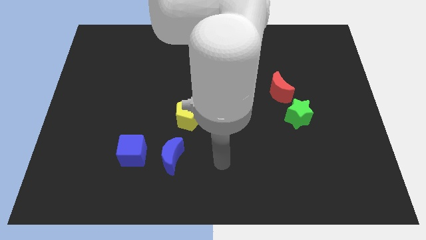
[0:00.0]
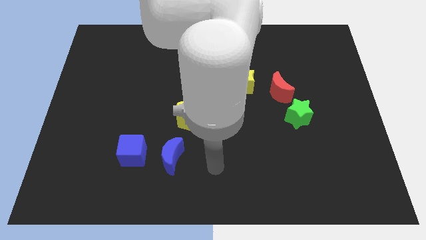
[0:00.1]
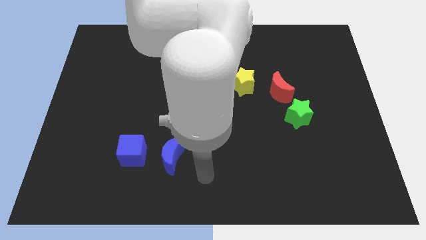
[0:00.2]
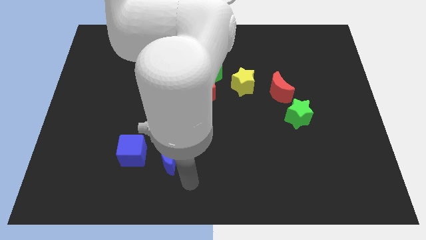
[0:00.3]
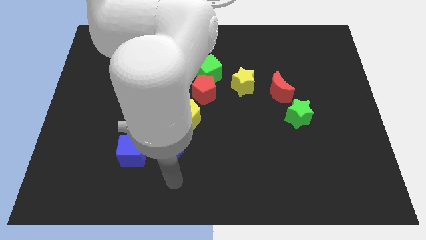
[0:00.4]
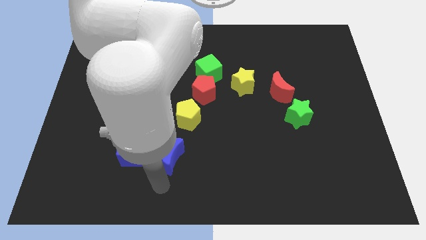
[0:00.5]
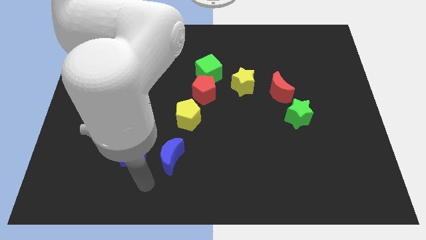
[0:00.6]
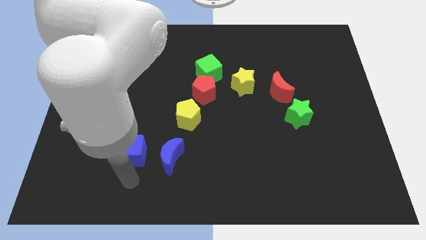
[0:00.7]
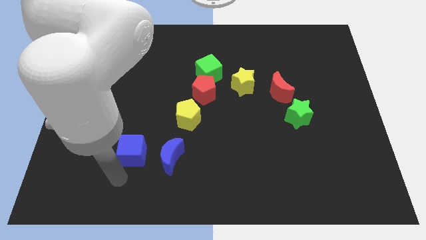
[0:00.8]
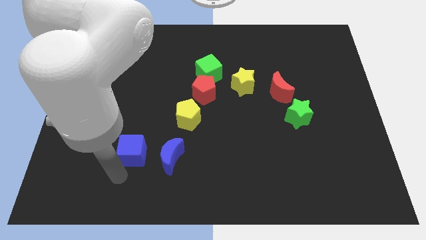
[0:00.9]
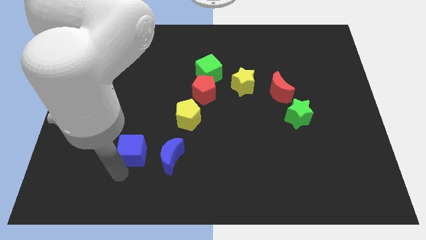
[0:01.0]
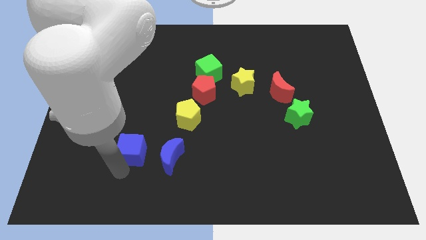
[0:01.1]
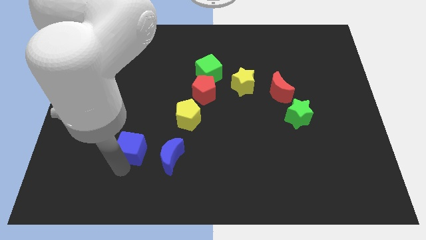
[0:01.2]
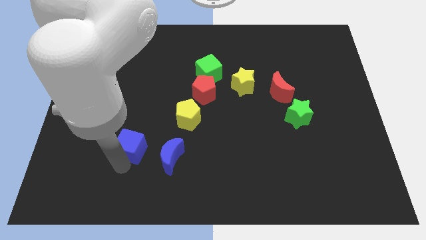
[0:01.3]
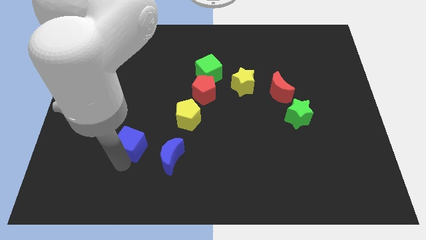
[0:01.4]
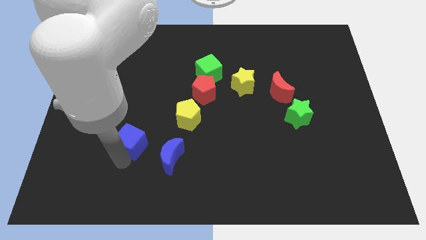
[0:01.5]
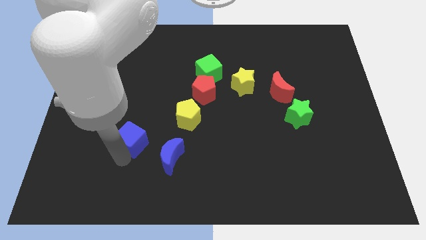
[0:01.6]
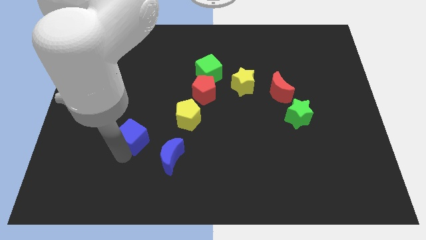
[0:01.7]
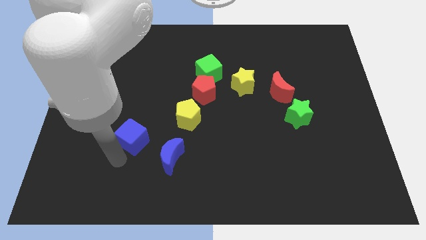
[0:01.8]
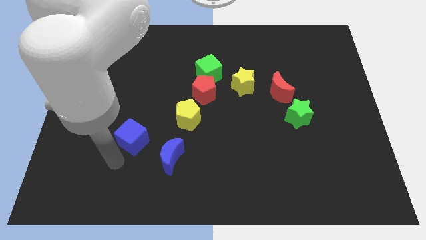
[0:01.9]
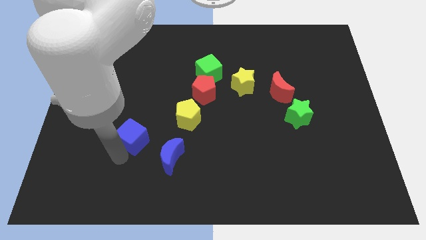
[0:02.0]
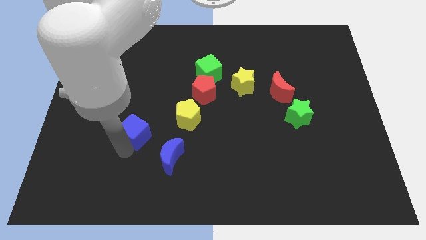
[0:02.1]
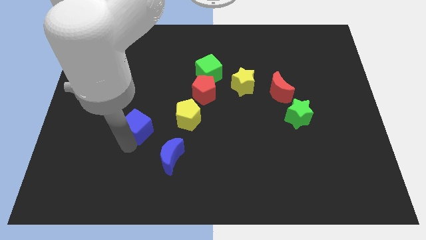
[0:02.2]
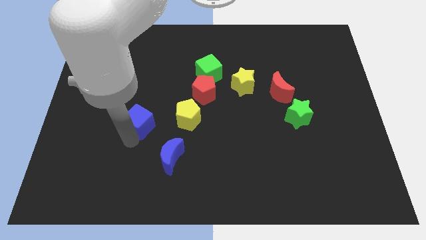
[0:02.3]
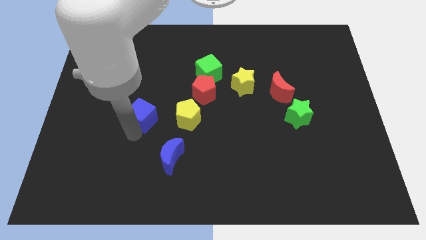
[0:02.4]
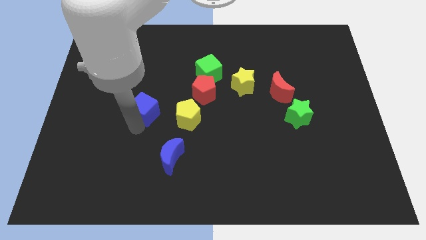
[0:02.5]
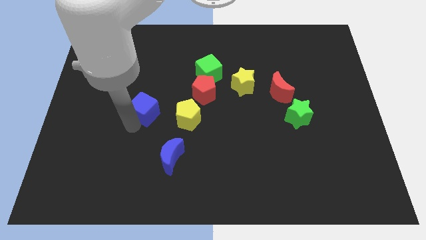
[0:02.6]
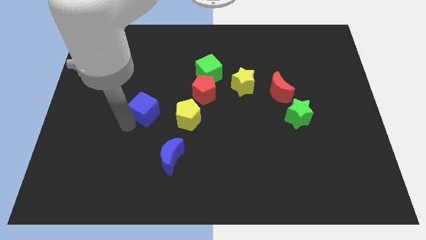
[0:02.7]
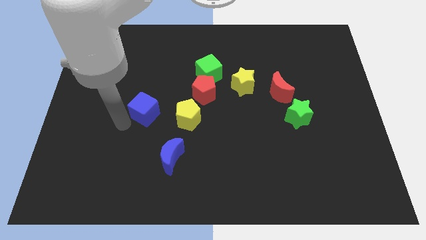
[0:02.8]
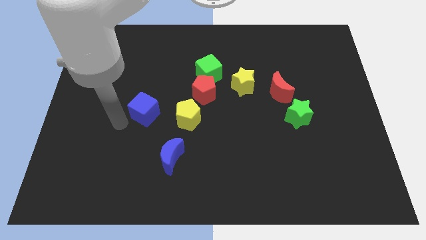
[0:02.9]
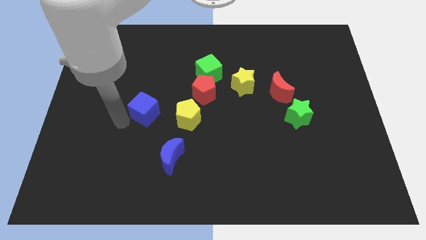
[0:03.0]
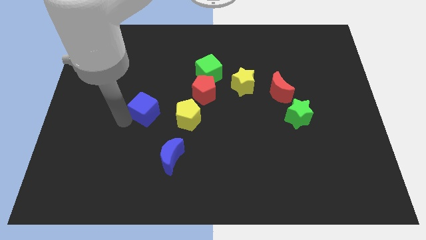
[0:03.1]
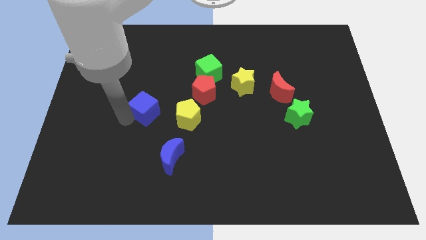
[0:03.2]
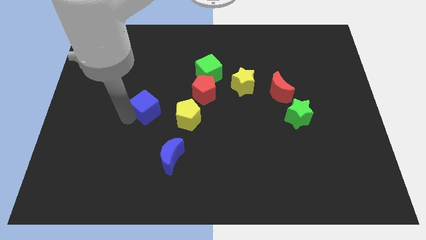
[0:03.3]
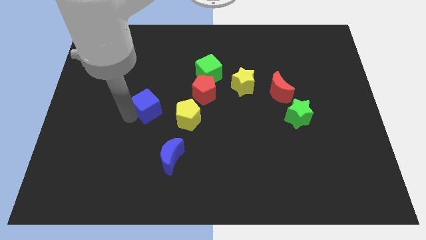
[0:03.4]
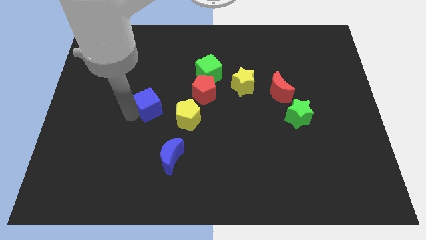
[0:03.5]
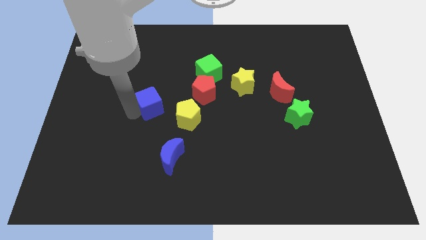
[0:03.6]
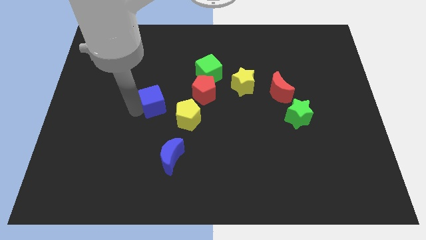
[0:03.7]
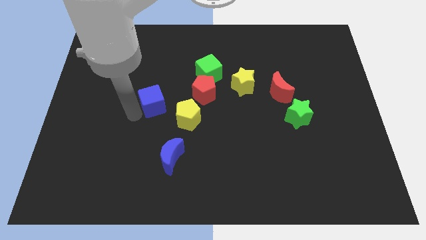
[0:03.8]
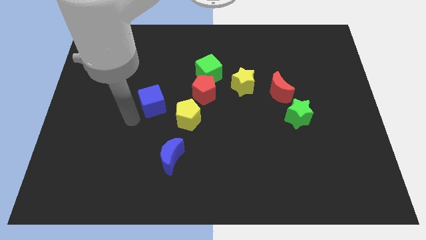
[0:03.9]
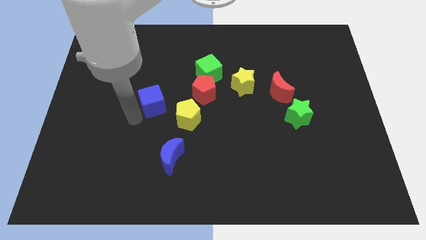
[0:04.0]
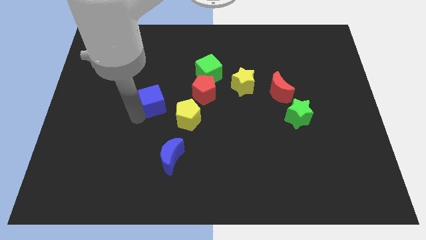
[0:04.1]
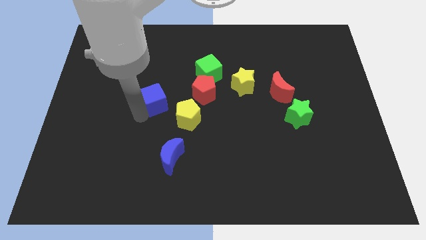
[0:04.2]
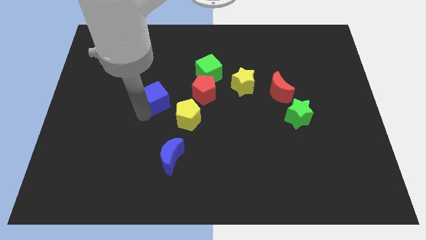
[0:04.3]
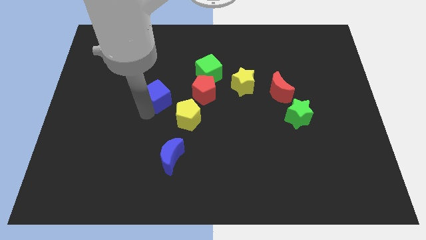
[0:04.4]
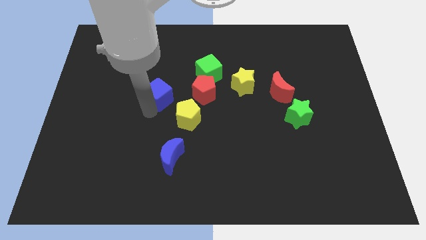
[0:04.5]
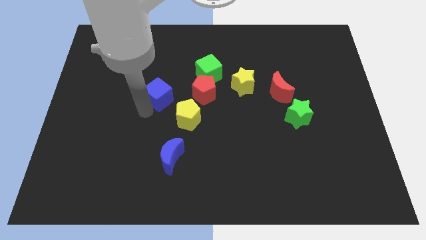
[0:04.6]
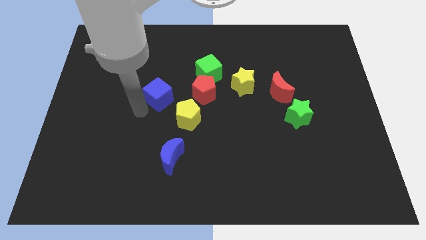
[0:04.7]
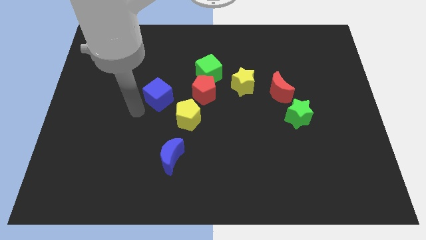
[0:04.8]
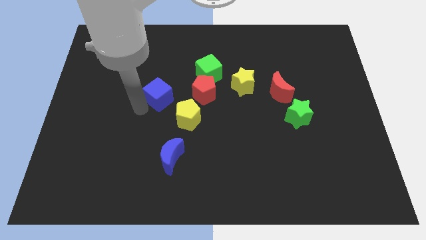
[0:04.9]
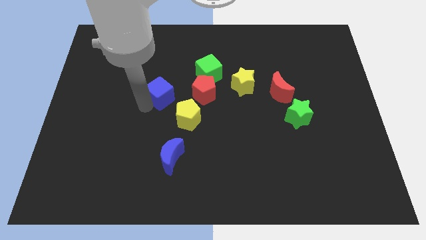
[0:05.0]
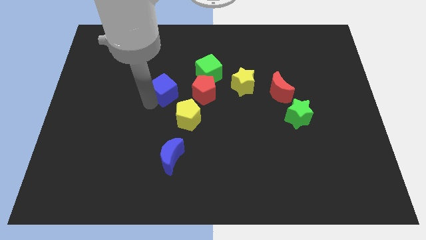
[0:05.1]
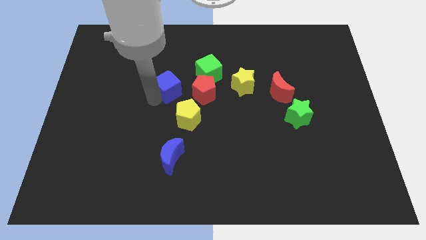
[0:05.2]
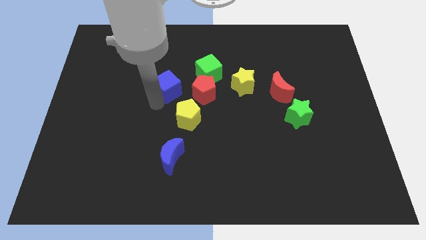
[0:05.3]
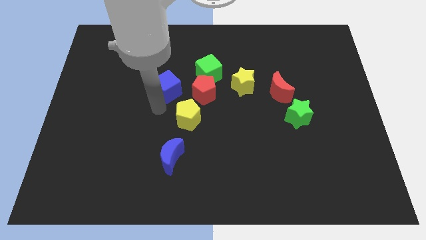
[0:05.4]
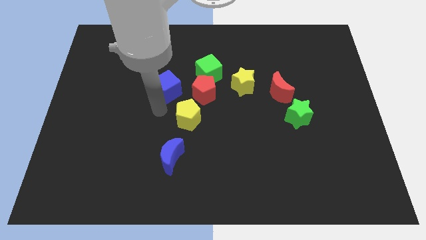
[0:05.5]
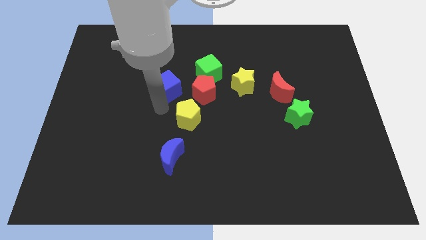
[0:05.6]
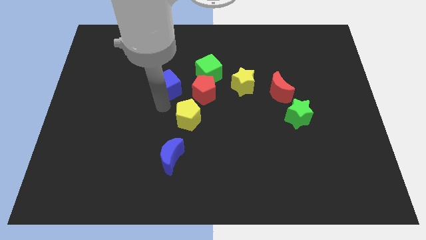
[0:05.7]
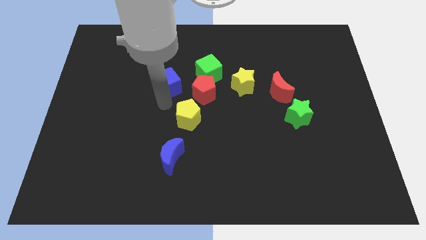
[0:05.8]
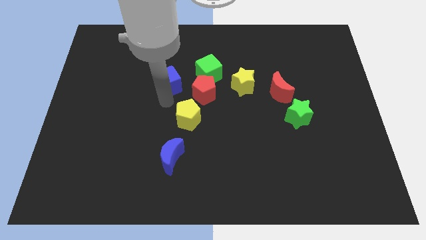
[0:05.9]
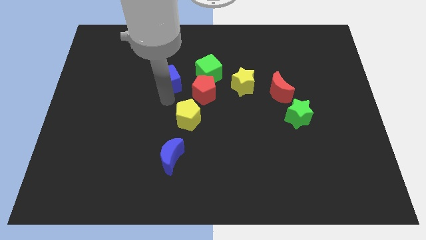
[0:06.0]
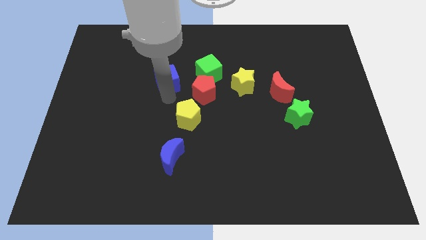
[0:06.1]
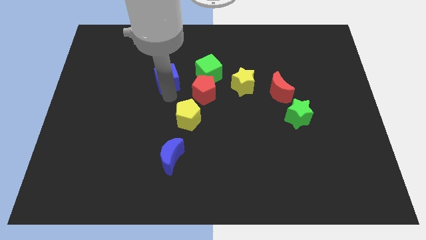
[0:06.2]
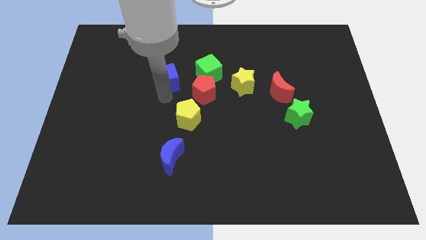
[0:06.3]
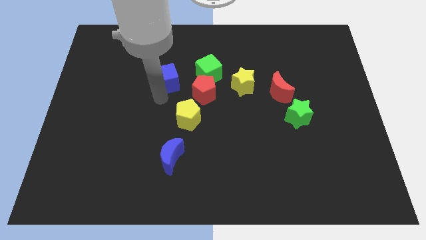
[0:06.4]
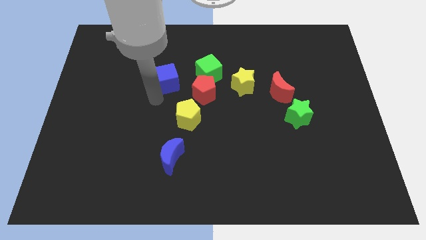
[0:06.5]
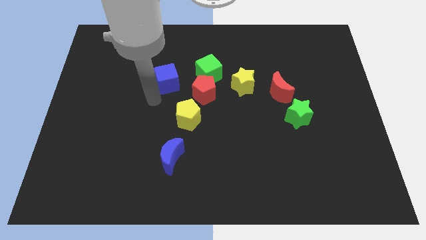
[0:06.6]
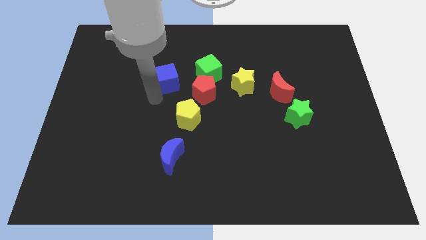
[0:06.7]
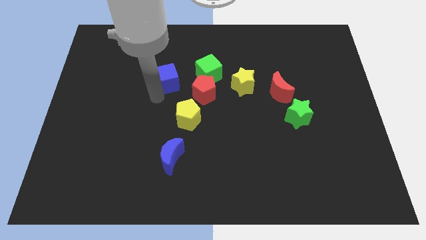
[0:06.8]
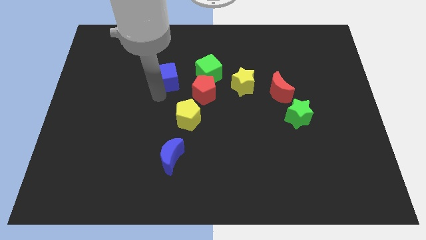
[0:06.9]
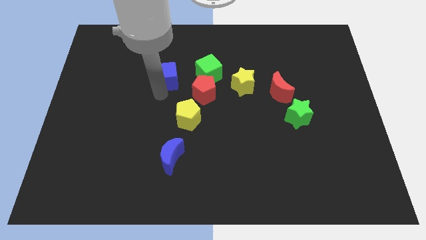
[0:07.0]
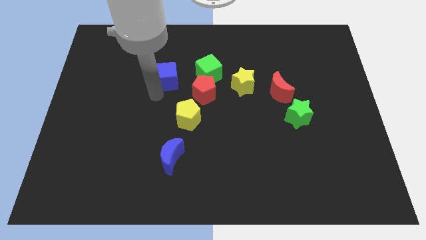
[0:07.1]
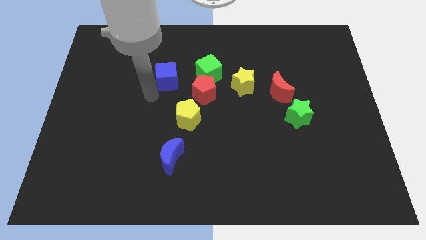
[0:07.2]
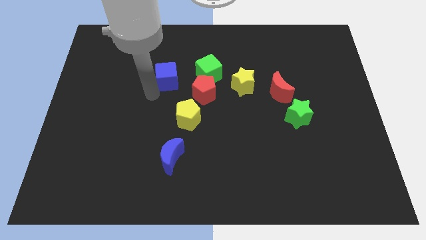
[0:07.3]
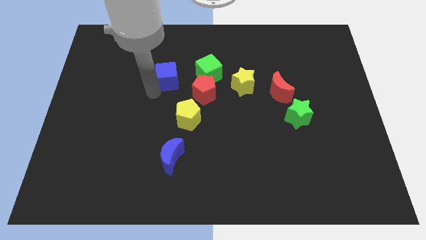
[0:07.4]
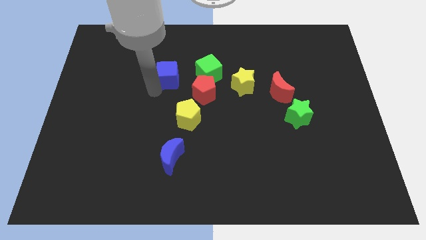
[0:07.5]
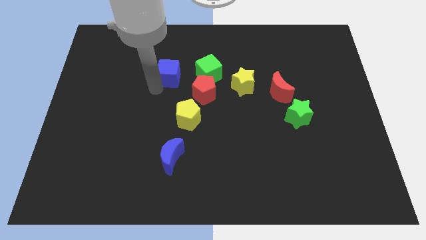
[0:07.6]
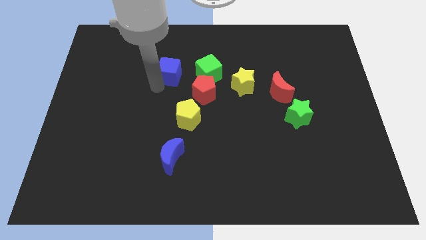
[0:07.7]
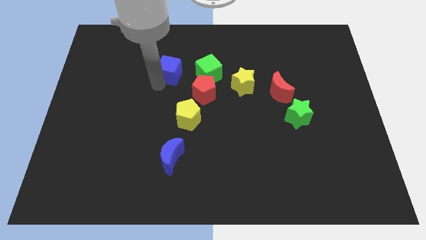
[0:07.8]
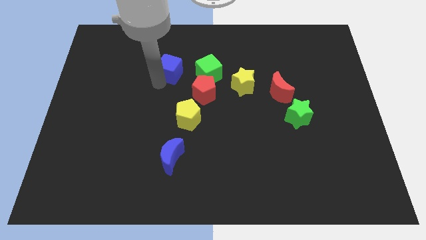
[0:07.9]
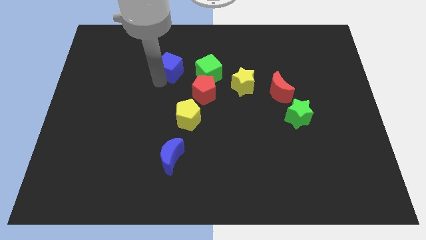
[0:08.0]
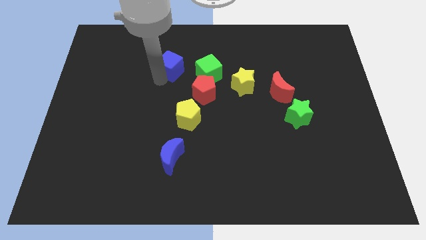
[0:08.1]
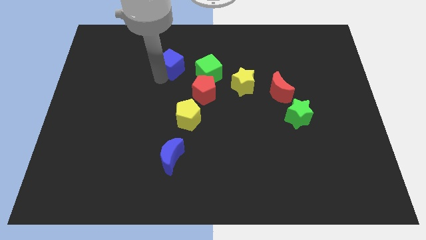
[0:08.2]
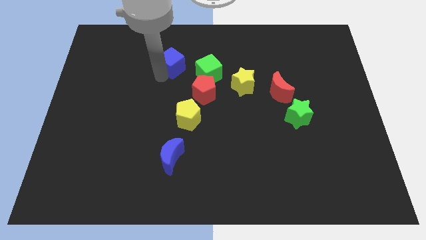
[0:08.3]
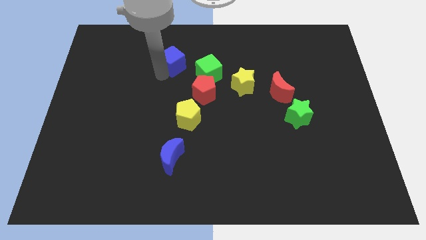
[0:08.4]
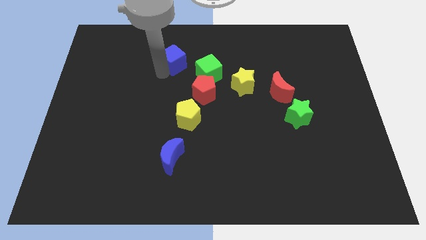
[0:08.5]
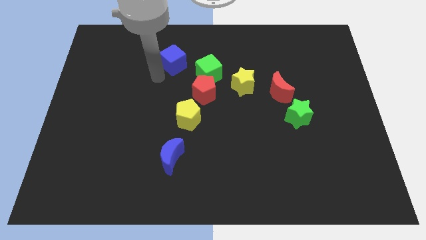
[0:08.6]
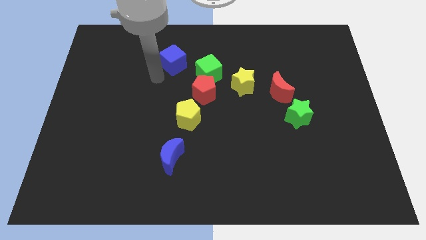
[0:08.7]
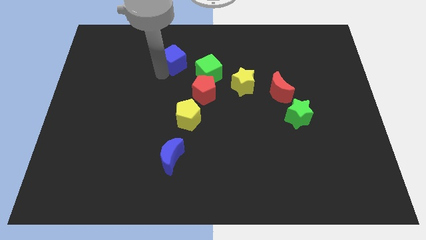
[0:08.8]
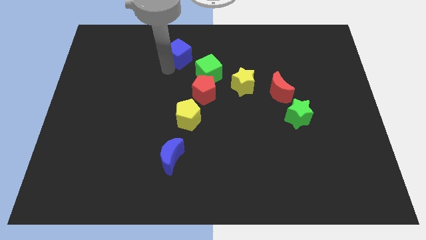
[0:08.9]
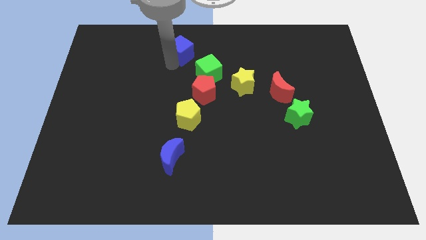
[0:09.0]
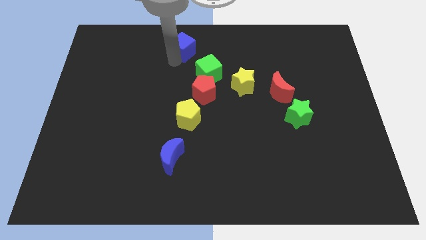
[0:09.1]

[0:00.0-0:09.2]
move the blue cube to the towards your base
